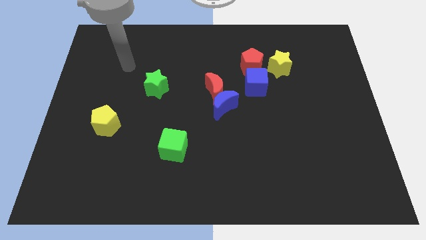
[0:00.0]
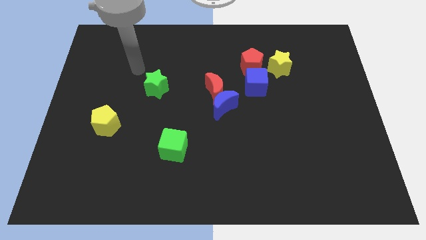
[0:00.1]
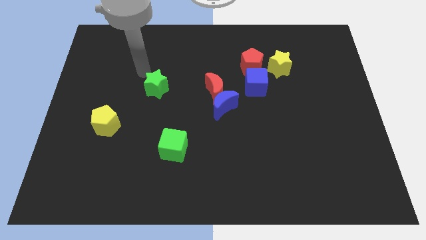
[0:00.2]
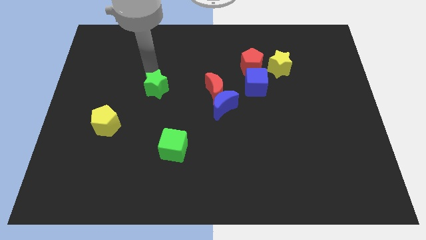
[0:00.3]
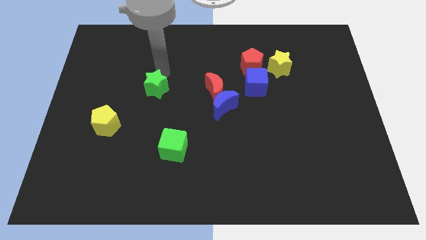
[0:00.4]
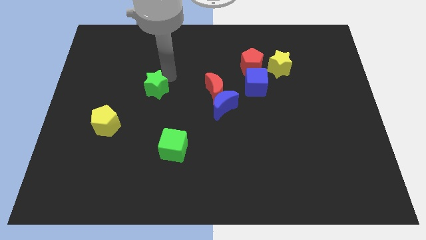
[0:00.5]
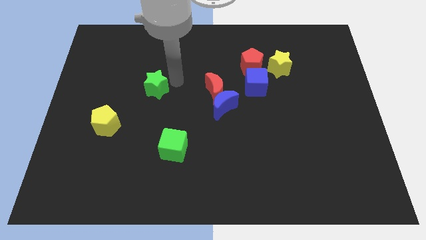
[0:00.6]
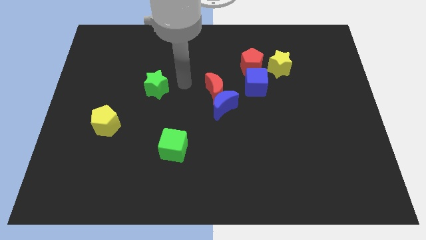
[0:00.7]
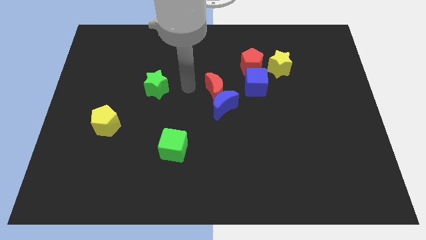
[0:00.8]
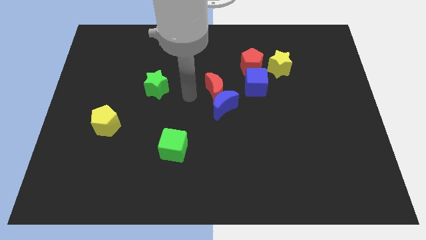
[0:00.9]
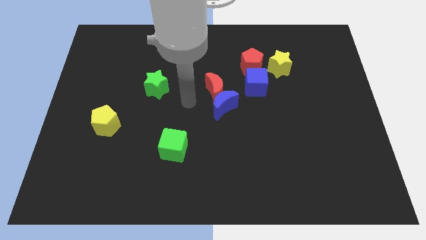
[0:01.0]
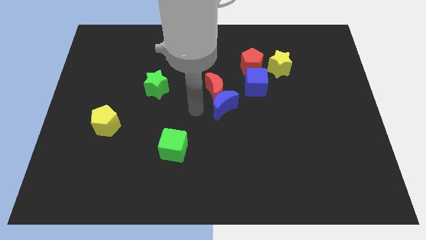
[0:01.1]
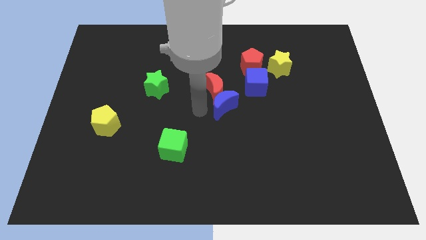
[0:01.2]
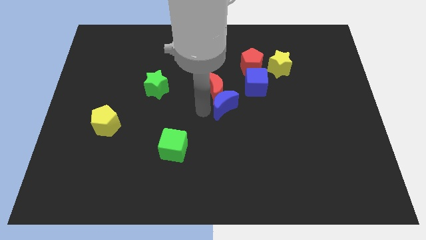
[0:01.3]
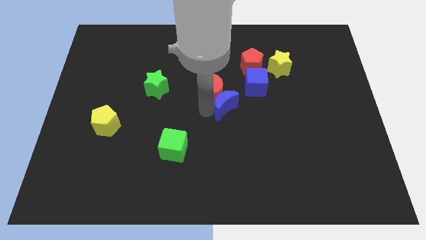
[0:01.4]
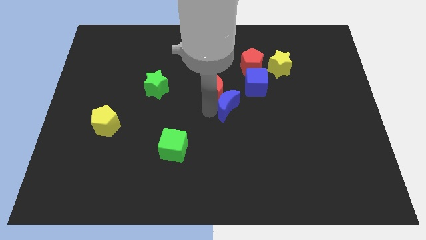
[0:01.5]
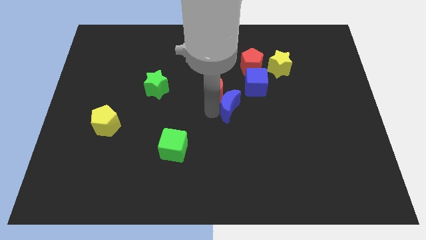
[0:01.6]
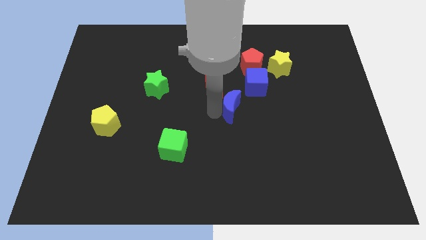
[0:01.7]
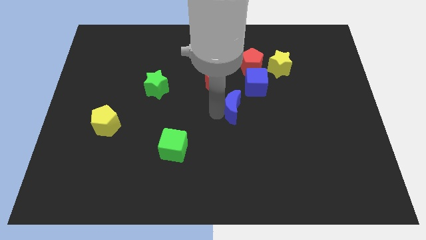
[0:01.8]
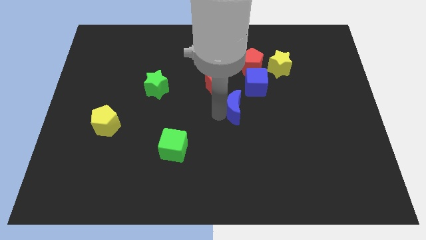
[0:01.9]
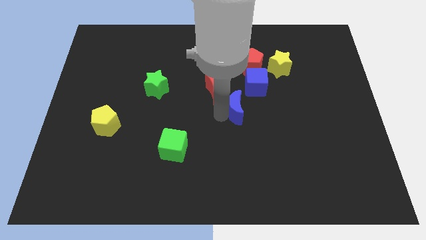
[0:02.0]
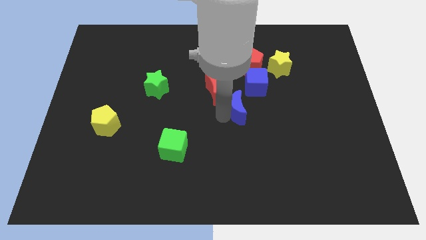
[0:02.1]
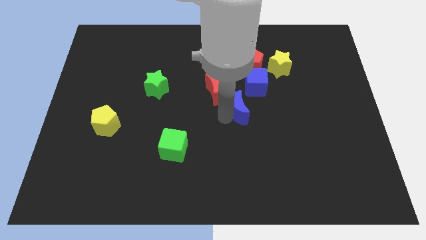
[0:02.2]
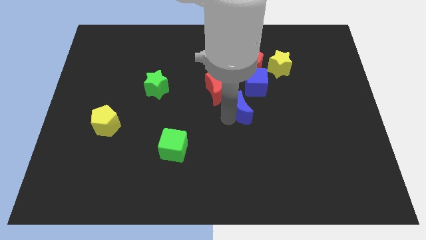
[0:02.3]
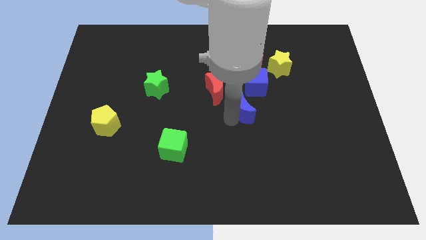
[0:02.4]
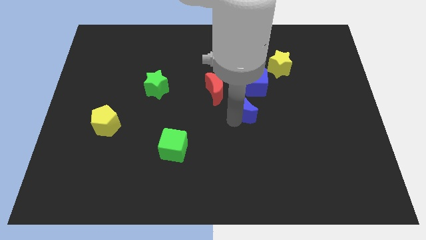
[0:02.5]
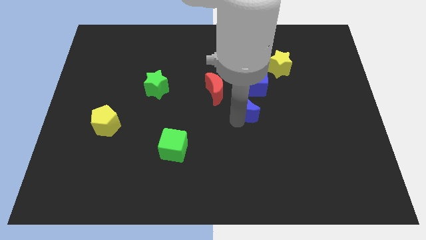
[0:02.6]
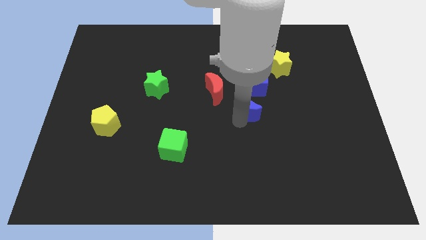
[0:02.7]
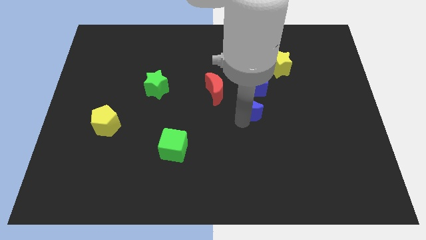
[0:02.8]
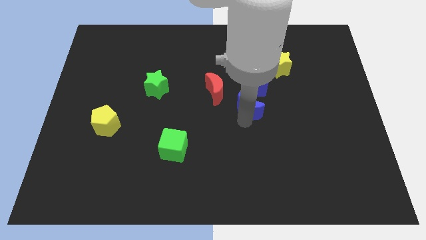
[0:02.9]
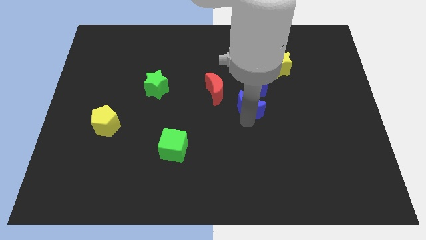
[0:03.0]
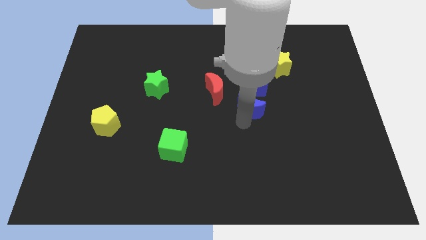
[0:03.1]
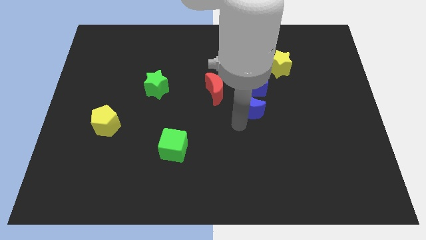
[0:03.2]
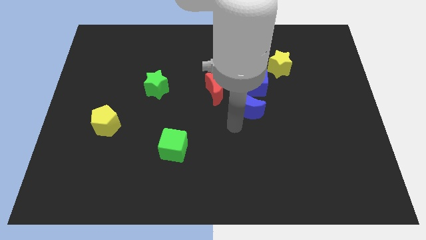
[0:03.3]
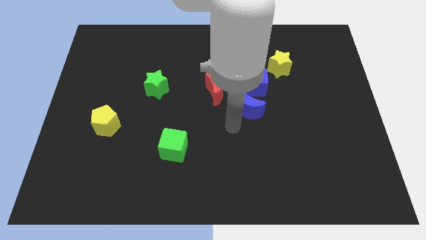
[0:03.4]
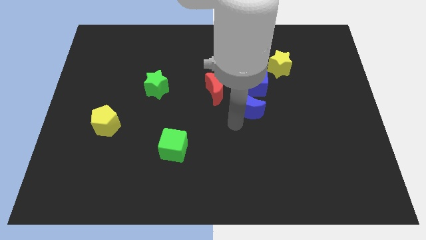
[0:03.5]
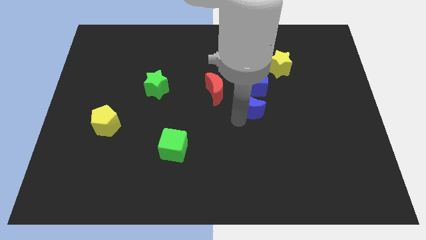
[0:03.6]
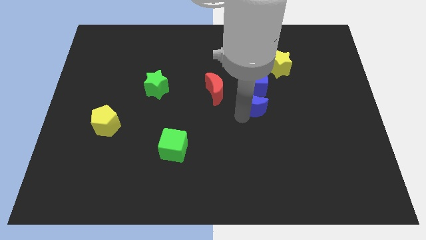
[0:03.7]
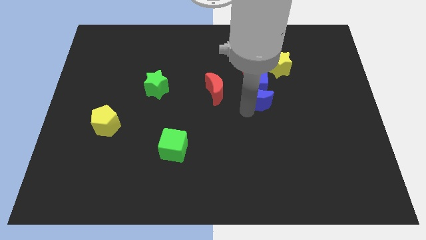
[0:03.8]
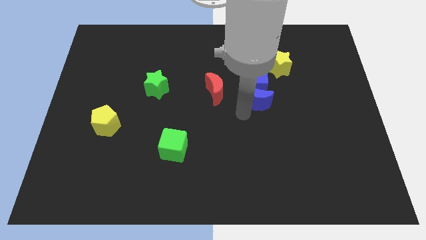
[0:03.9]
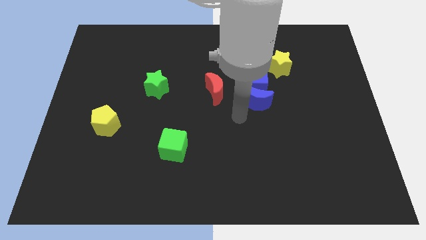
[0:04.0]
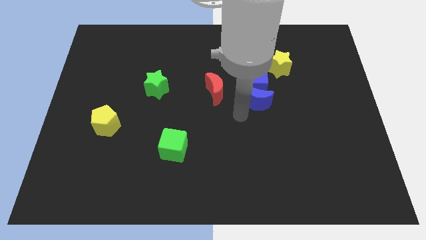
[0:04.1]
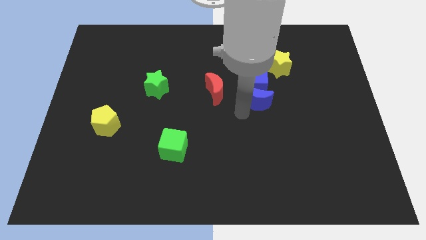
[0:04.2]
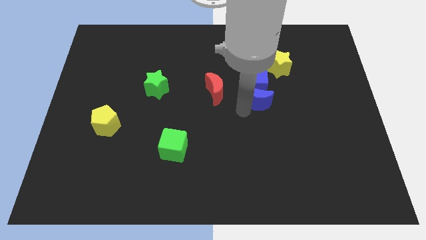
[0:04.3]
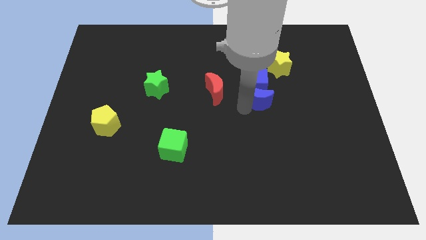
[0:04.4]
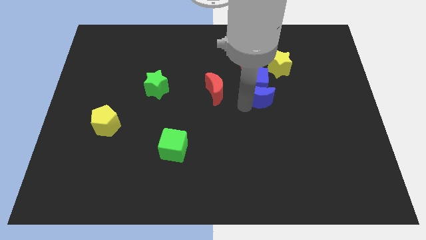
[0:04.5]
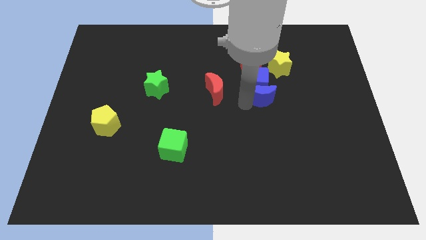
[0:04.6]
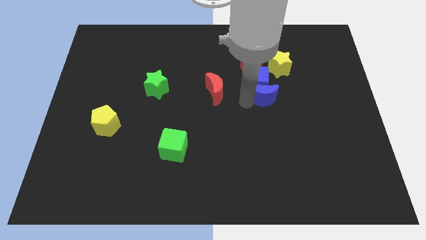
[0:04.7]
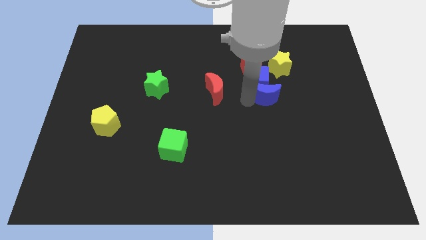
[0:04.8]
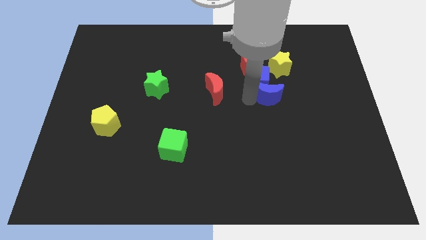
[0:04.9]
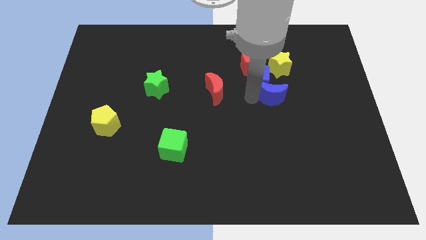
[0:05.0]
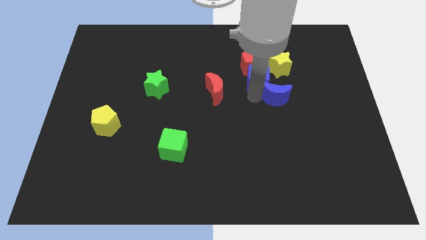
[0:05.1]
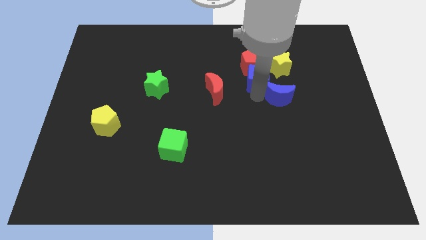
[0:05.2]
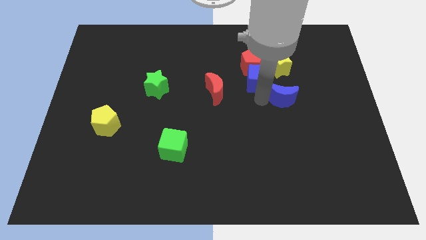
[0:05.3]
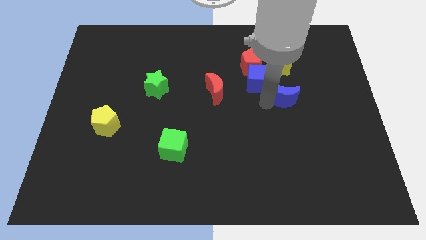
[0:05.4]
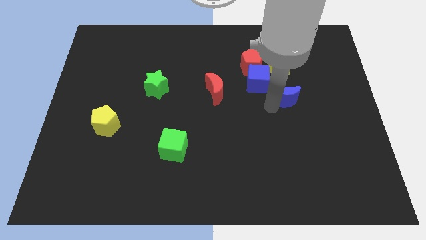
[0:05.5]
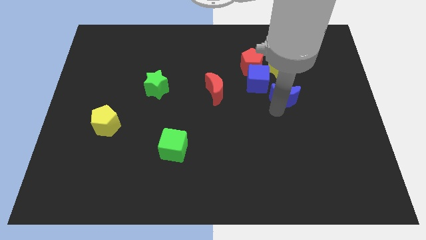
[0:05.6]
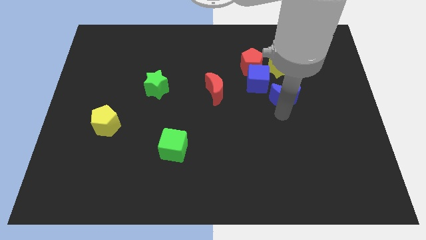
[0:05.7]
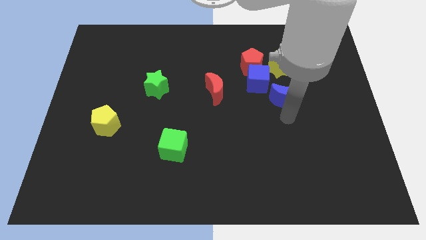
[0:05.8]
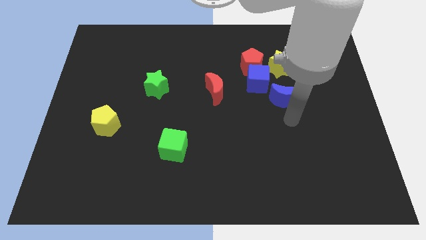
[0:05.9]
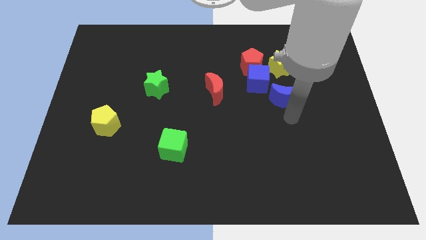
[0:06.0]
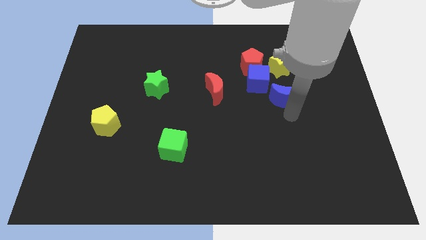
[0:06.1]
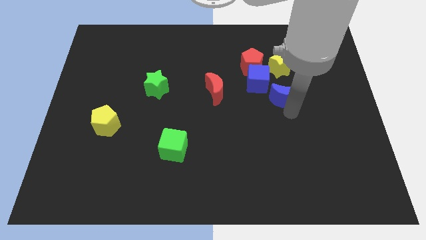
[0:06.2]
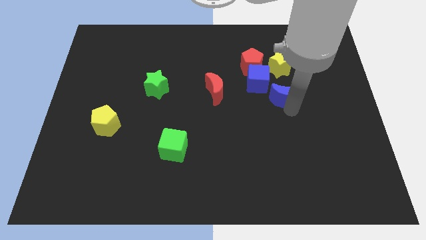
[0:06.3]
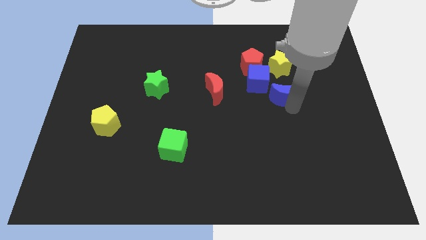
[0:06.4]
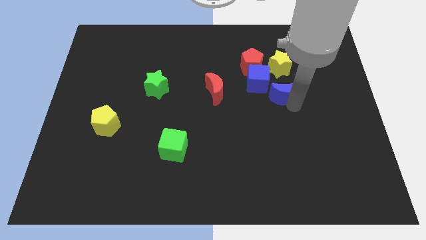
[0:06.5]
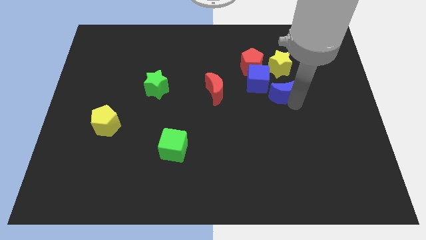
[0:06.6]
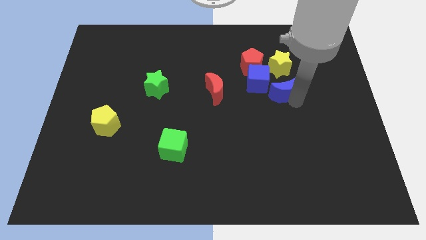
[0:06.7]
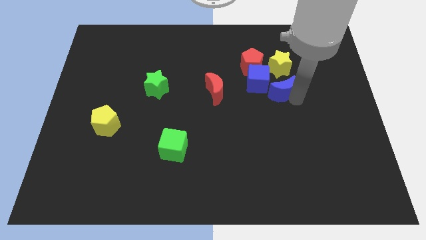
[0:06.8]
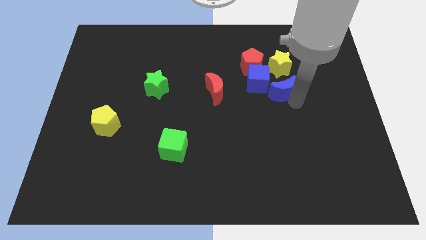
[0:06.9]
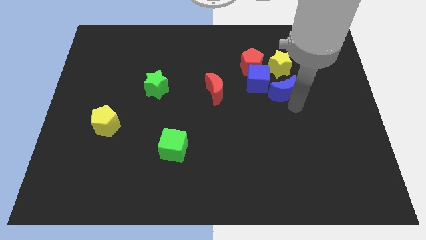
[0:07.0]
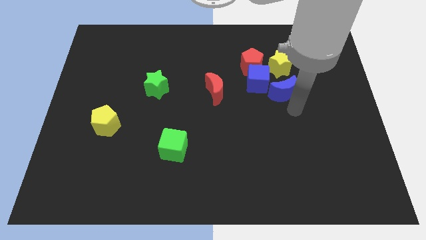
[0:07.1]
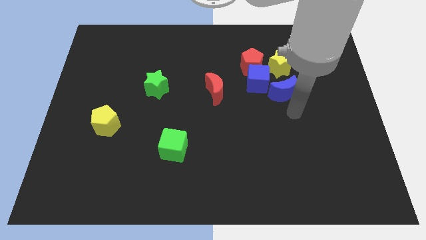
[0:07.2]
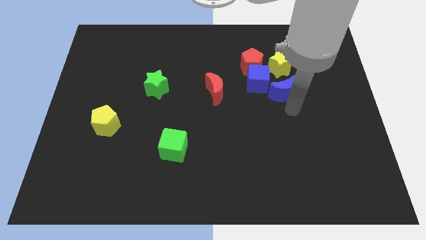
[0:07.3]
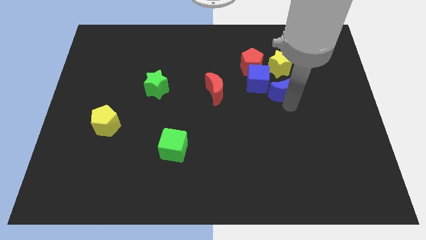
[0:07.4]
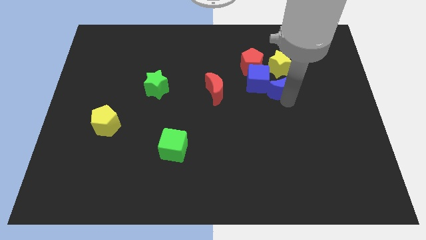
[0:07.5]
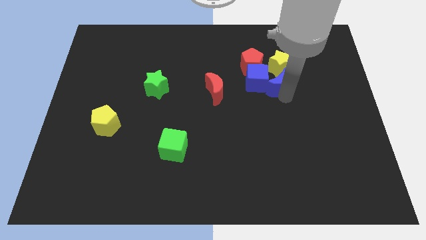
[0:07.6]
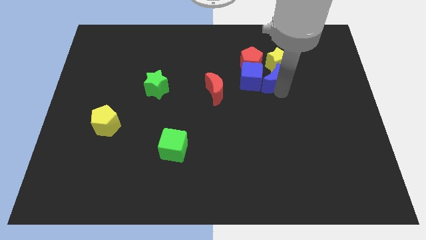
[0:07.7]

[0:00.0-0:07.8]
put the blue moon towards the yellow star

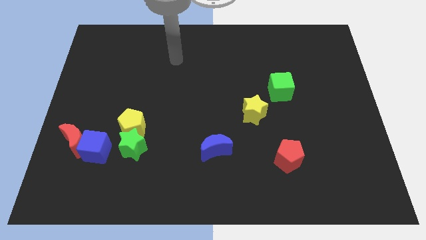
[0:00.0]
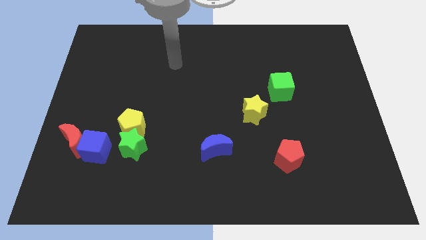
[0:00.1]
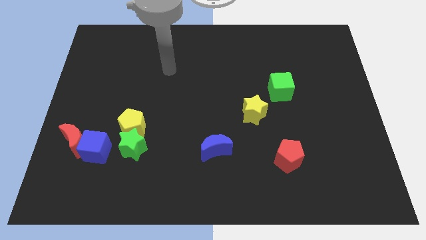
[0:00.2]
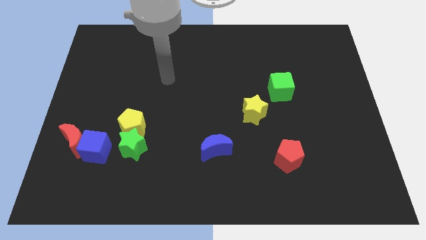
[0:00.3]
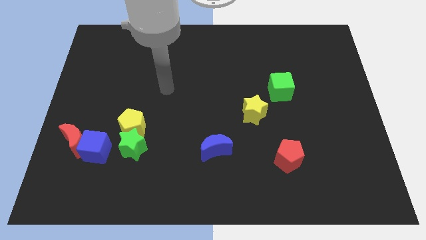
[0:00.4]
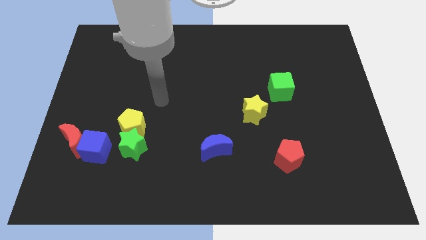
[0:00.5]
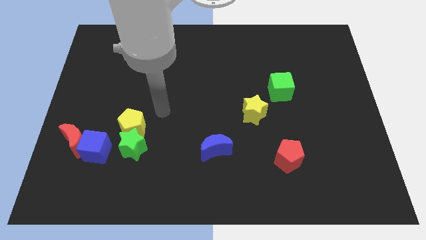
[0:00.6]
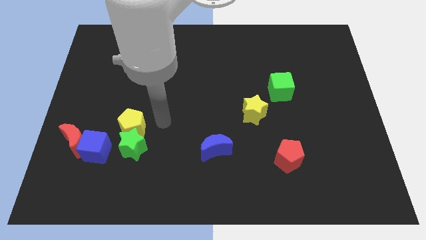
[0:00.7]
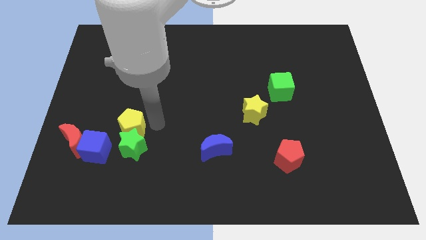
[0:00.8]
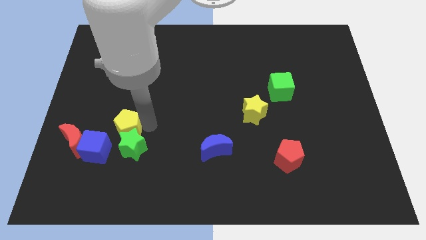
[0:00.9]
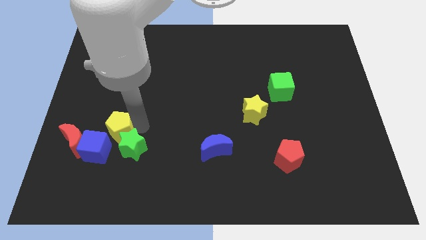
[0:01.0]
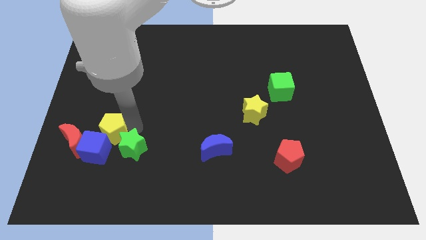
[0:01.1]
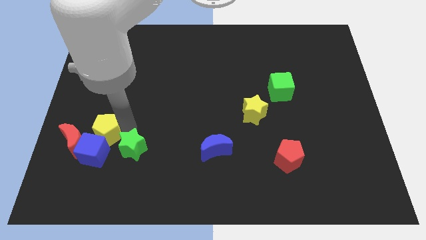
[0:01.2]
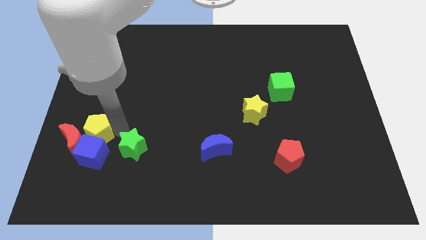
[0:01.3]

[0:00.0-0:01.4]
put the yellow pentagon close to the red moon
